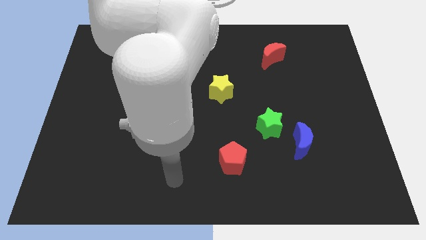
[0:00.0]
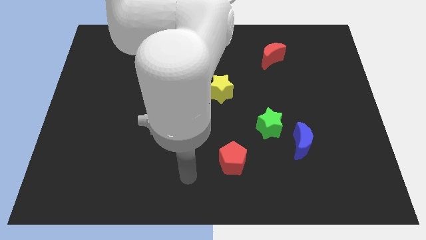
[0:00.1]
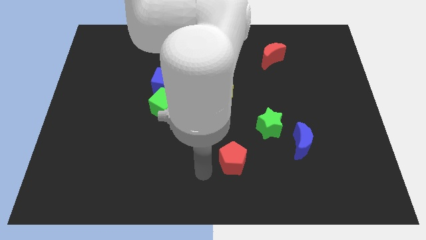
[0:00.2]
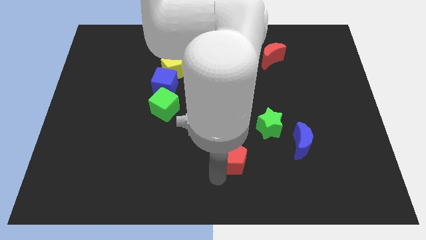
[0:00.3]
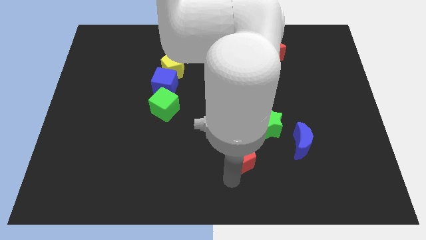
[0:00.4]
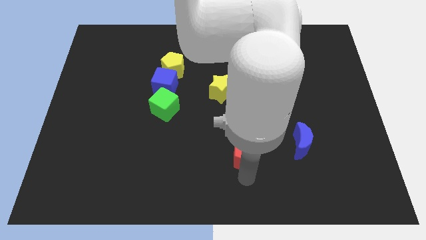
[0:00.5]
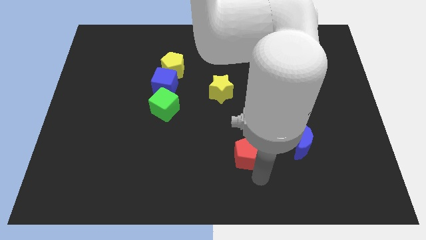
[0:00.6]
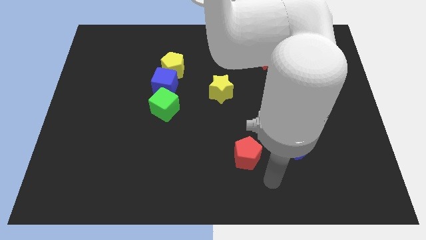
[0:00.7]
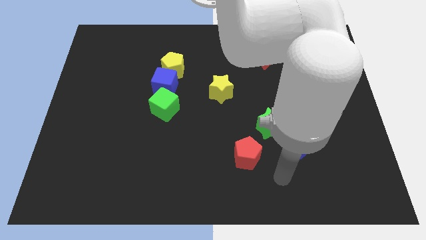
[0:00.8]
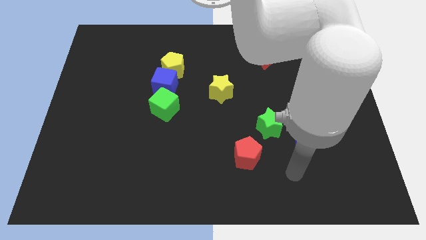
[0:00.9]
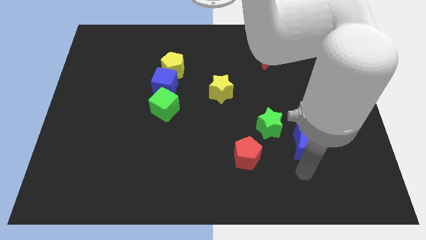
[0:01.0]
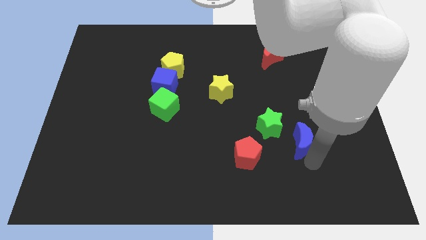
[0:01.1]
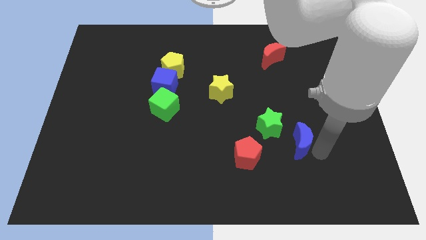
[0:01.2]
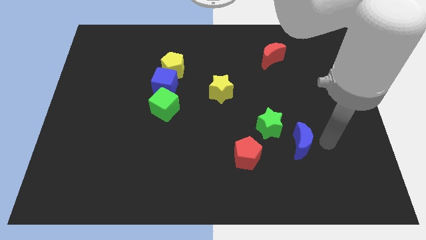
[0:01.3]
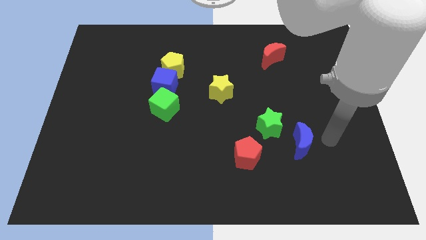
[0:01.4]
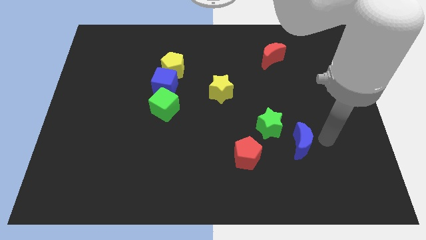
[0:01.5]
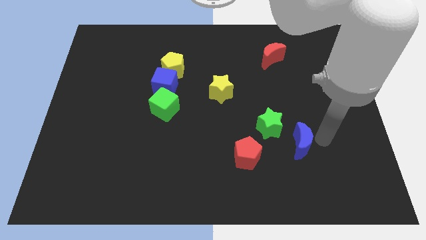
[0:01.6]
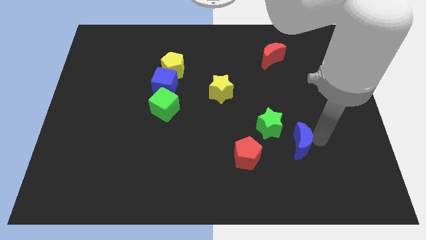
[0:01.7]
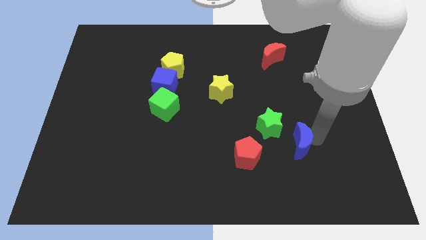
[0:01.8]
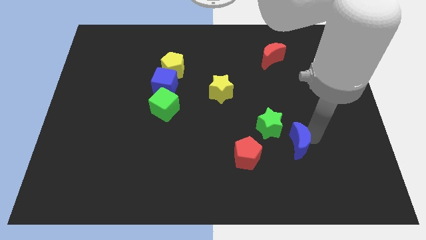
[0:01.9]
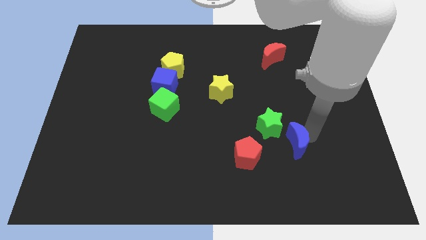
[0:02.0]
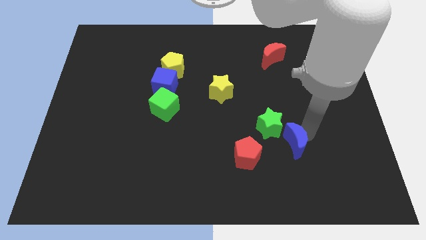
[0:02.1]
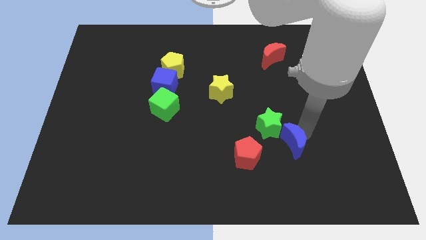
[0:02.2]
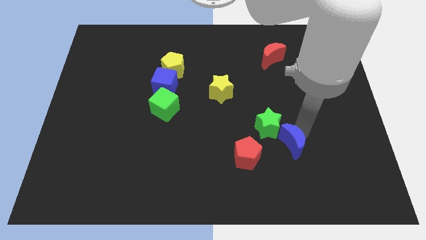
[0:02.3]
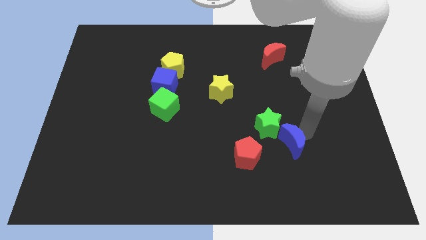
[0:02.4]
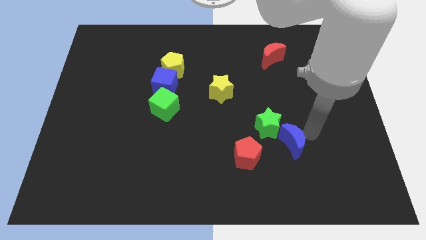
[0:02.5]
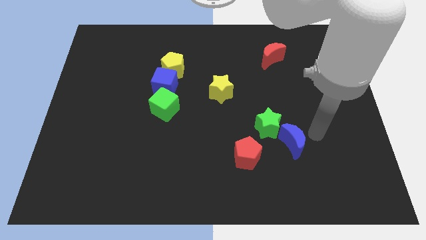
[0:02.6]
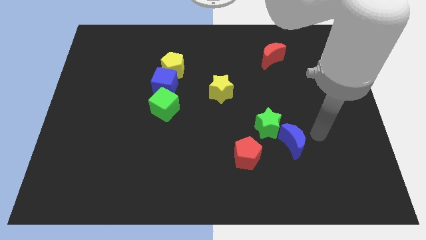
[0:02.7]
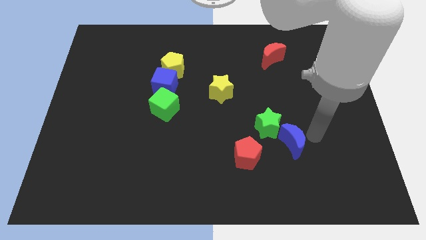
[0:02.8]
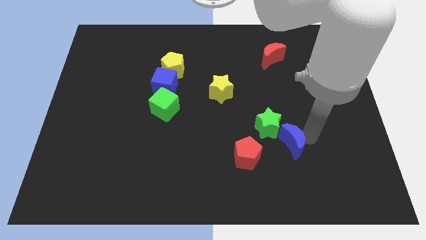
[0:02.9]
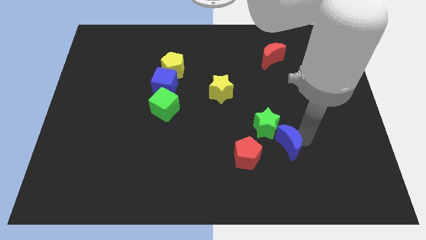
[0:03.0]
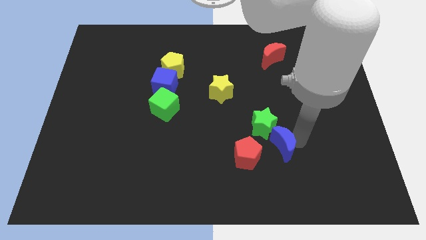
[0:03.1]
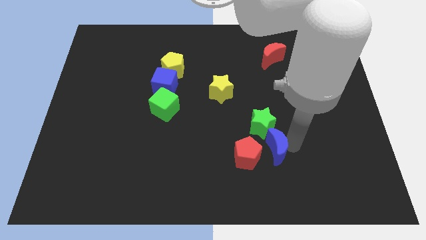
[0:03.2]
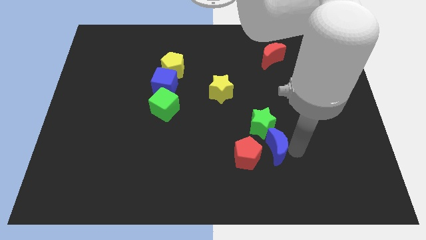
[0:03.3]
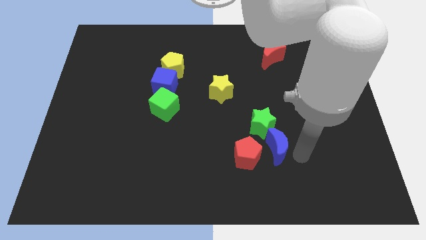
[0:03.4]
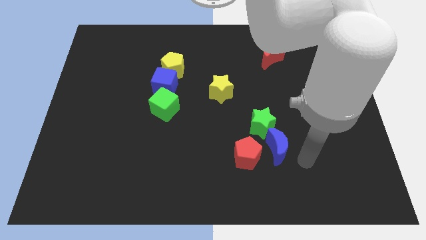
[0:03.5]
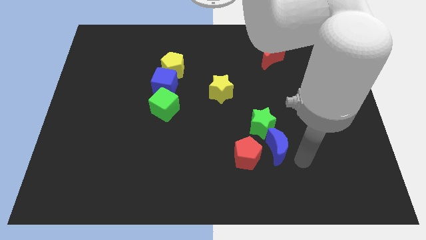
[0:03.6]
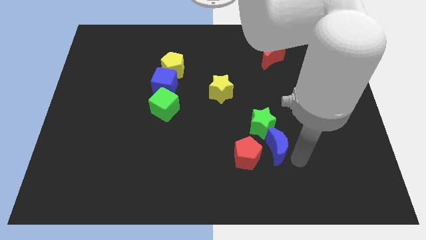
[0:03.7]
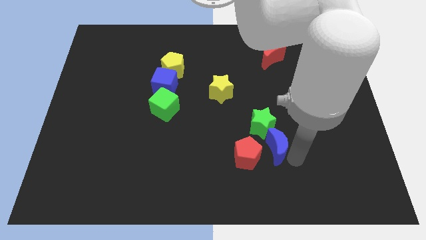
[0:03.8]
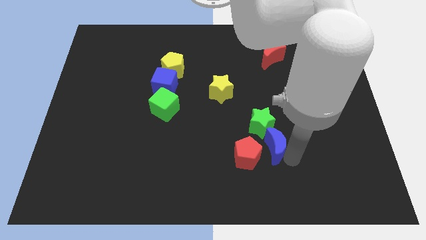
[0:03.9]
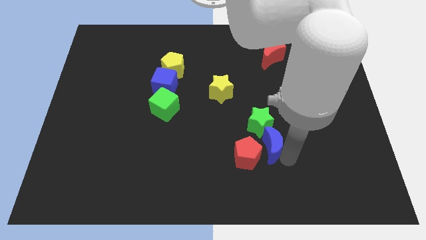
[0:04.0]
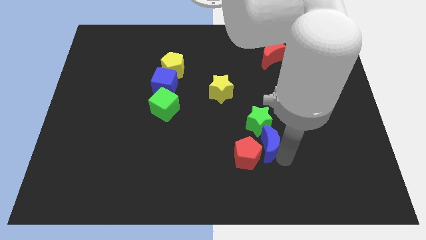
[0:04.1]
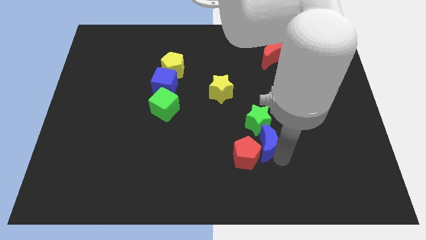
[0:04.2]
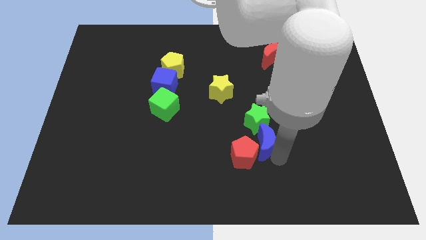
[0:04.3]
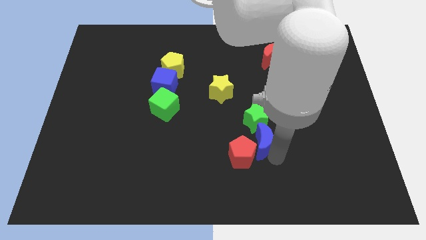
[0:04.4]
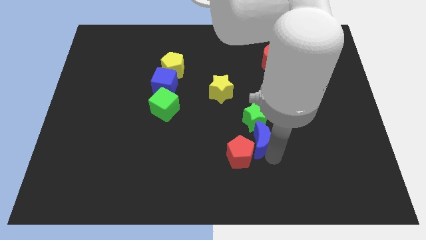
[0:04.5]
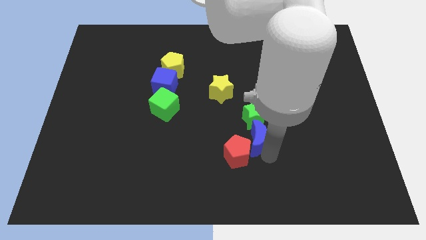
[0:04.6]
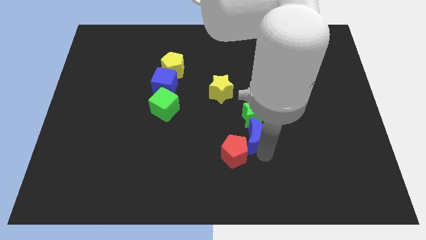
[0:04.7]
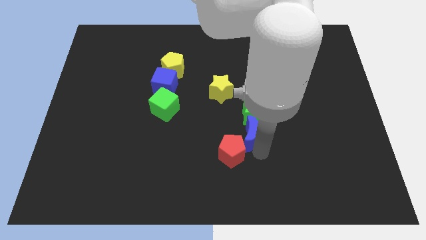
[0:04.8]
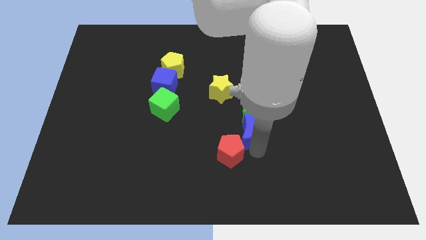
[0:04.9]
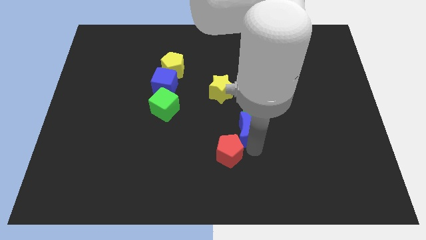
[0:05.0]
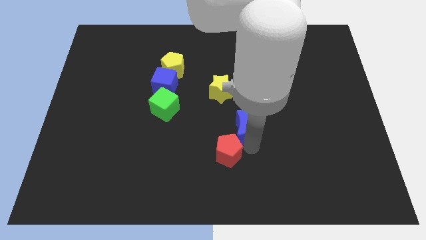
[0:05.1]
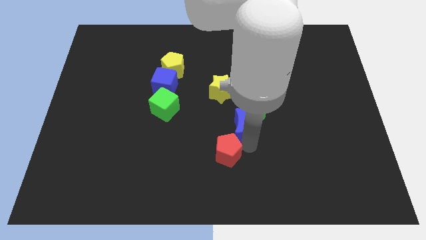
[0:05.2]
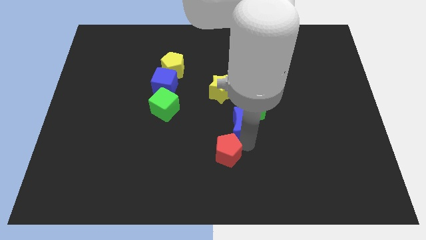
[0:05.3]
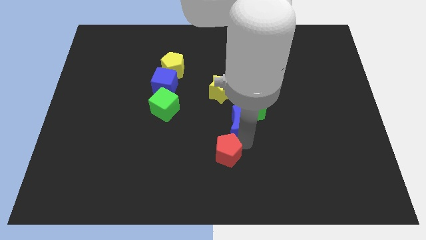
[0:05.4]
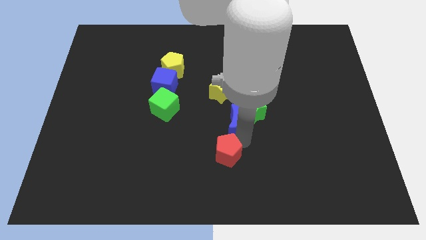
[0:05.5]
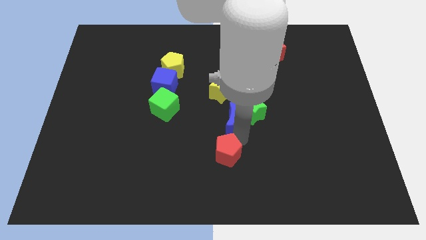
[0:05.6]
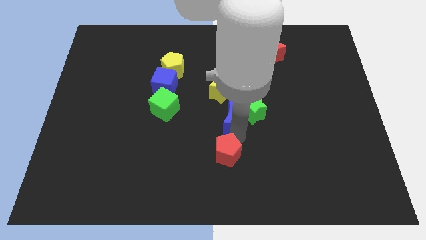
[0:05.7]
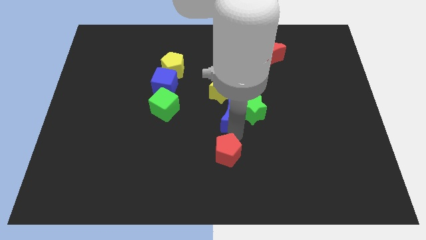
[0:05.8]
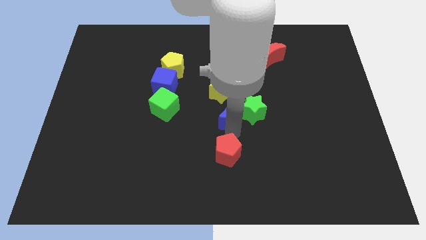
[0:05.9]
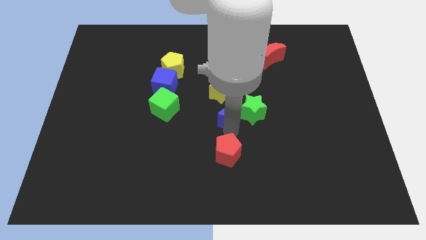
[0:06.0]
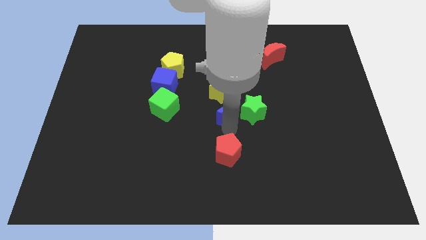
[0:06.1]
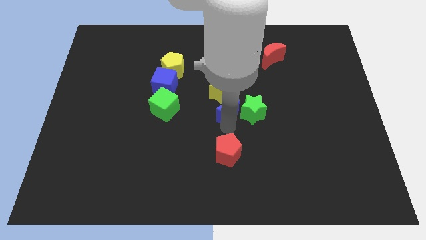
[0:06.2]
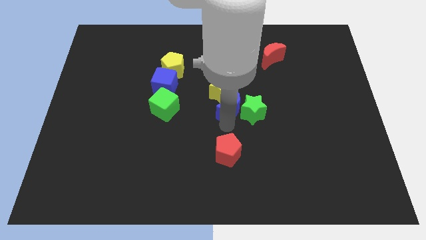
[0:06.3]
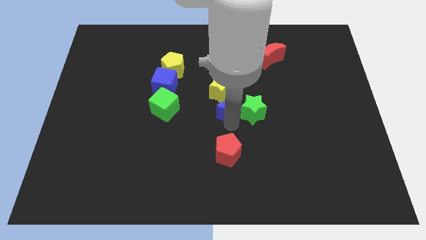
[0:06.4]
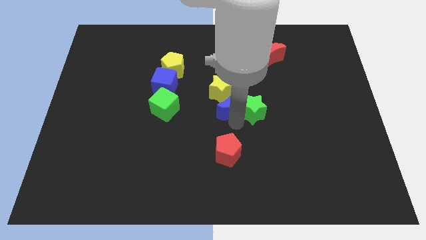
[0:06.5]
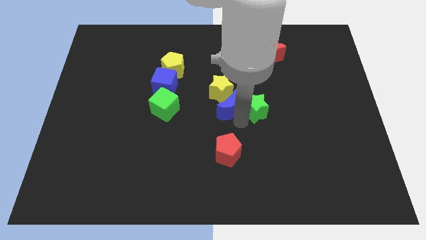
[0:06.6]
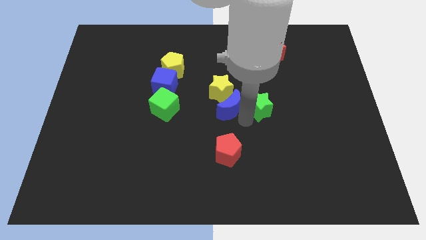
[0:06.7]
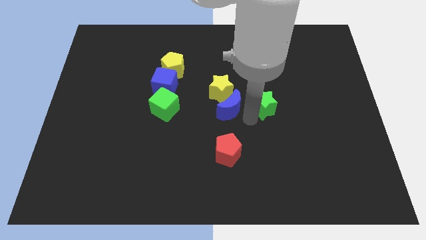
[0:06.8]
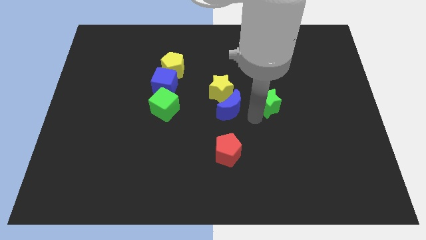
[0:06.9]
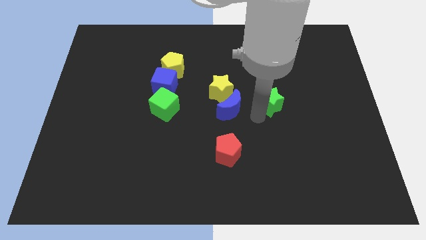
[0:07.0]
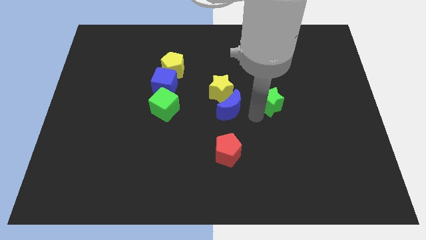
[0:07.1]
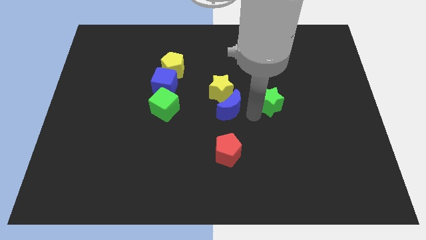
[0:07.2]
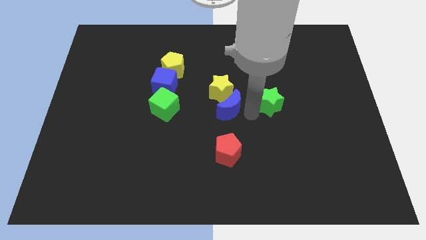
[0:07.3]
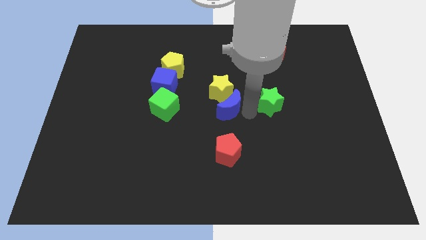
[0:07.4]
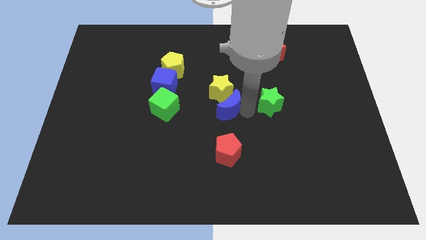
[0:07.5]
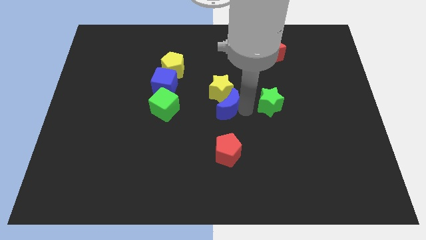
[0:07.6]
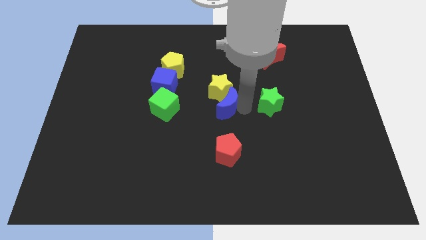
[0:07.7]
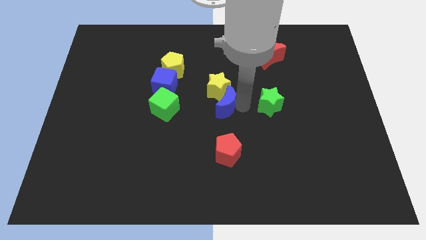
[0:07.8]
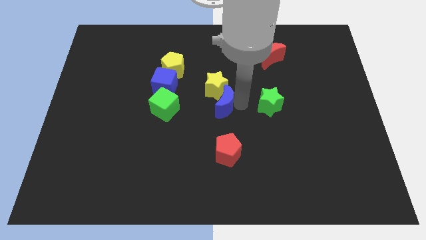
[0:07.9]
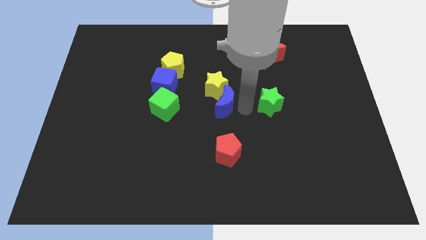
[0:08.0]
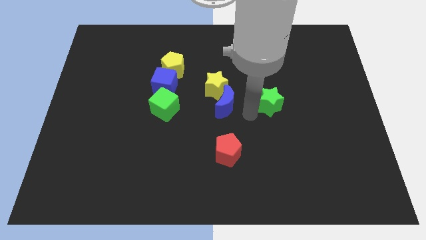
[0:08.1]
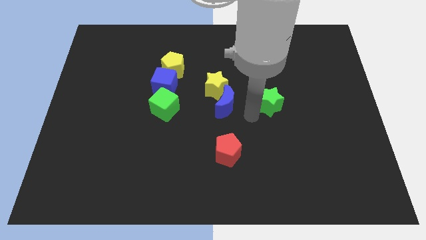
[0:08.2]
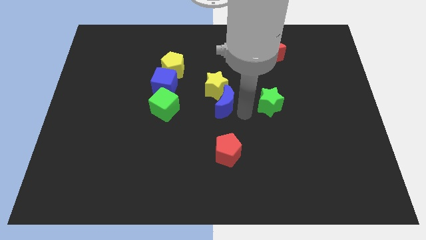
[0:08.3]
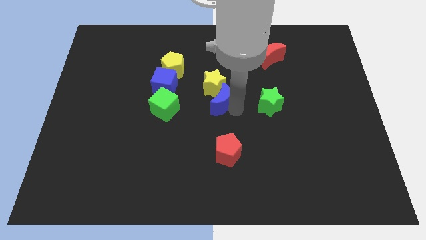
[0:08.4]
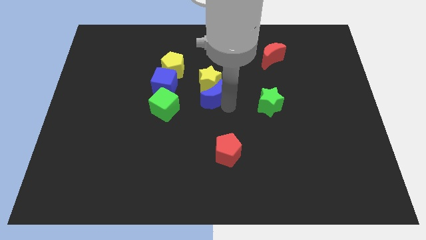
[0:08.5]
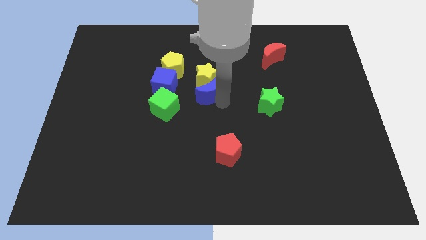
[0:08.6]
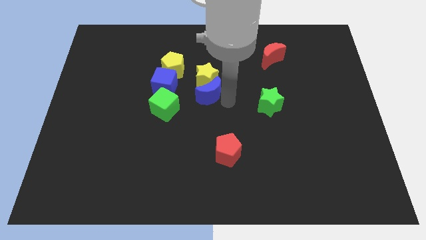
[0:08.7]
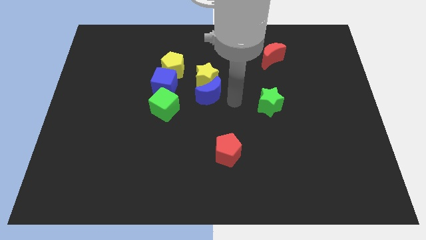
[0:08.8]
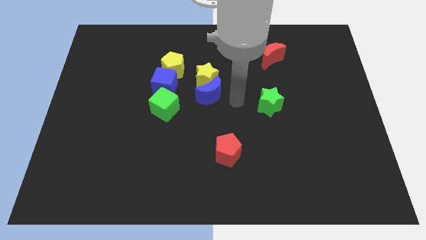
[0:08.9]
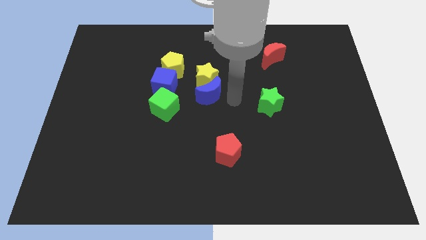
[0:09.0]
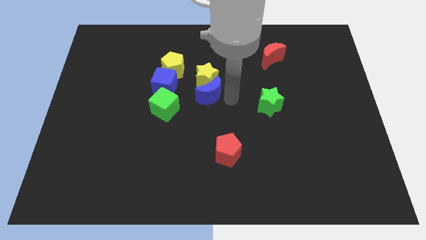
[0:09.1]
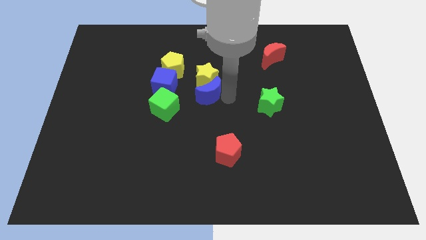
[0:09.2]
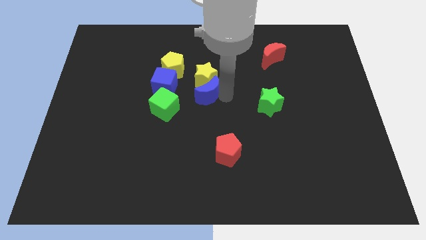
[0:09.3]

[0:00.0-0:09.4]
push the blue moon to the top right side of the green cube
